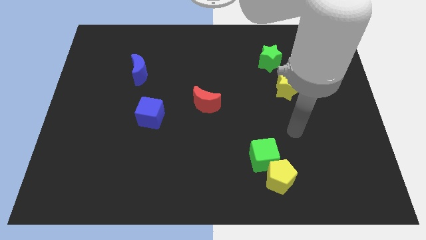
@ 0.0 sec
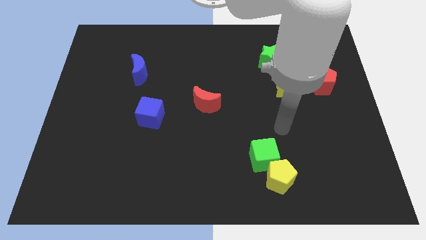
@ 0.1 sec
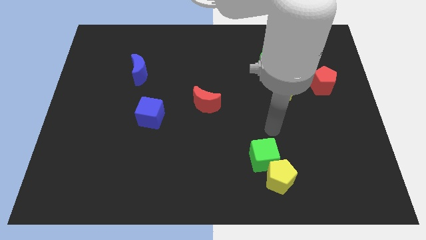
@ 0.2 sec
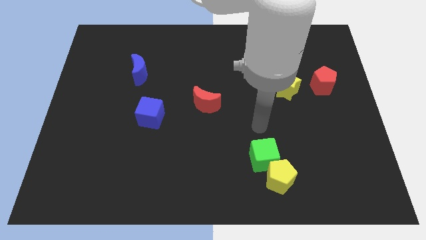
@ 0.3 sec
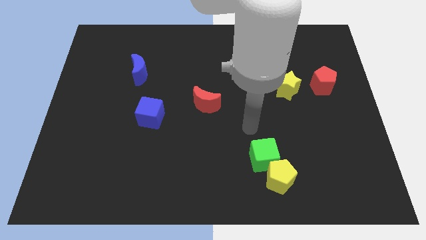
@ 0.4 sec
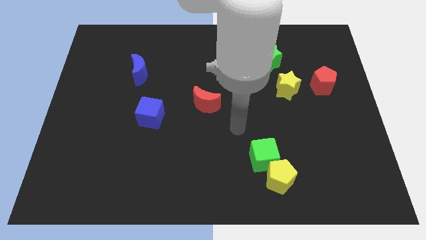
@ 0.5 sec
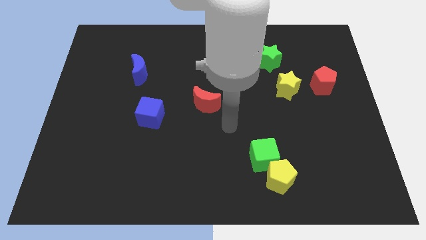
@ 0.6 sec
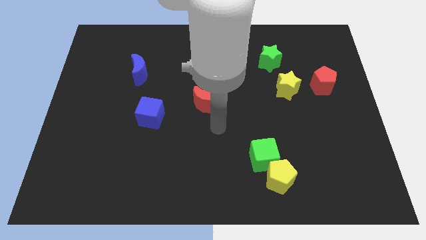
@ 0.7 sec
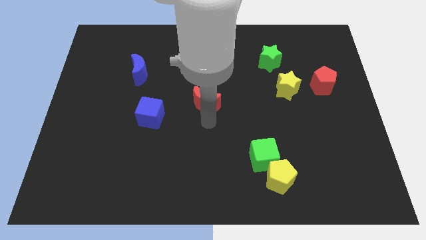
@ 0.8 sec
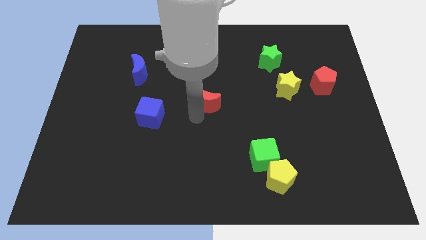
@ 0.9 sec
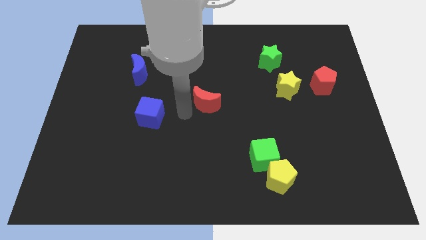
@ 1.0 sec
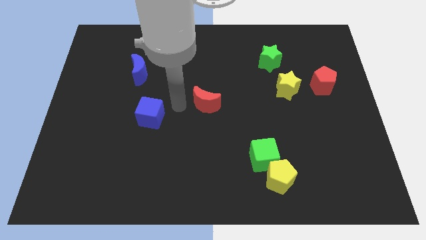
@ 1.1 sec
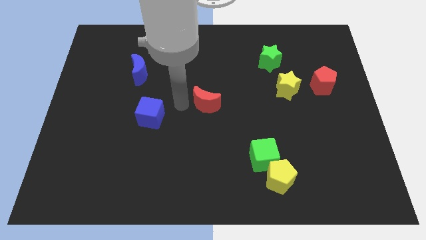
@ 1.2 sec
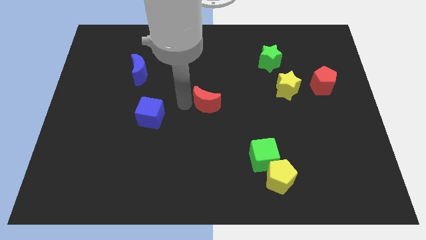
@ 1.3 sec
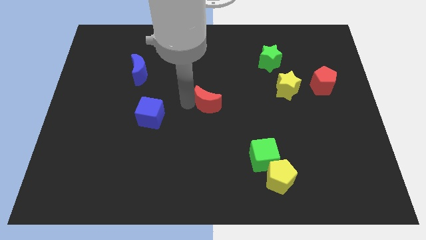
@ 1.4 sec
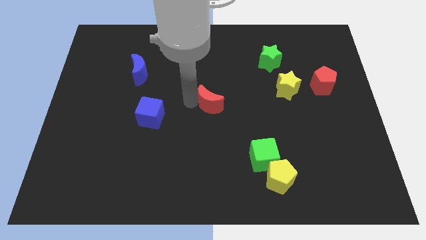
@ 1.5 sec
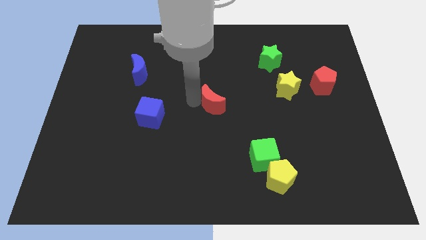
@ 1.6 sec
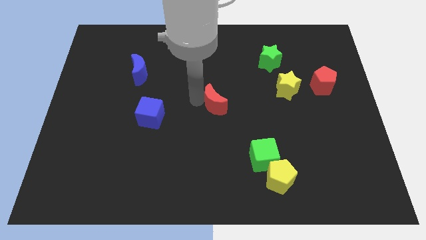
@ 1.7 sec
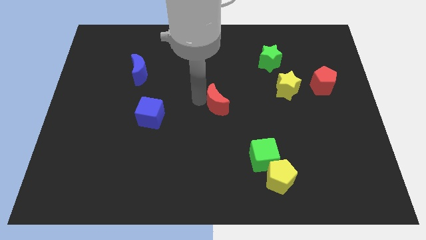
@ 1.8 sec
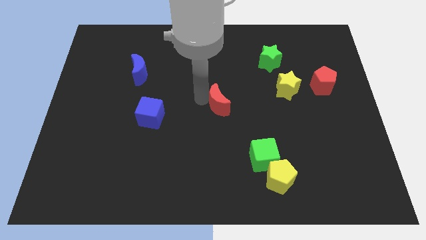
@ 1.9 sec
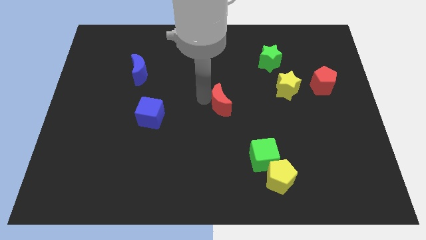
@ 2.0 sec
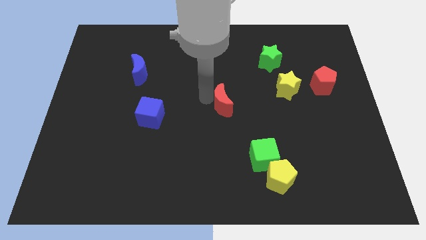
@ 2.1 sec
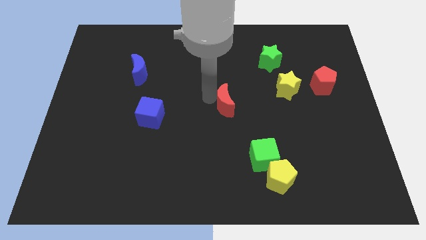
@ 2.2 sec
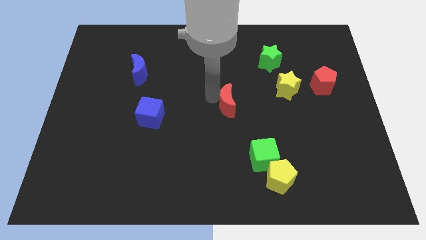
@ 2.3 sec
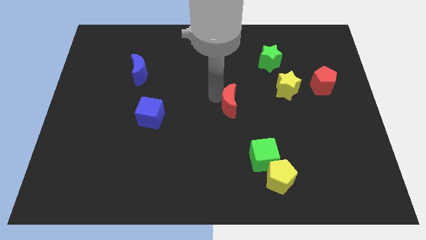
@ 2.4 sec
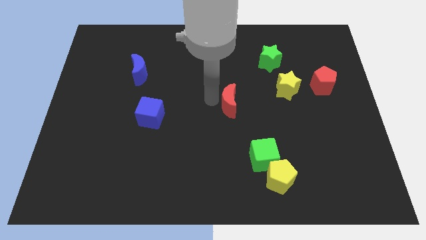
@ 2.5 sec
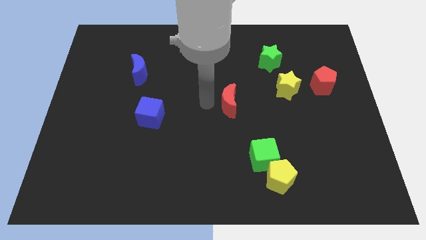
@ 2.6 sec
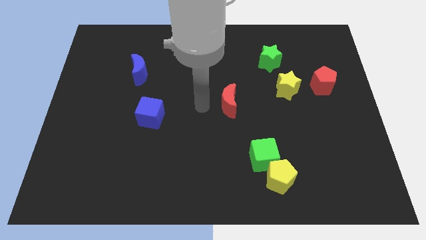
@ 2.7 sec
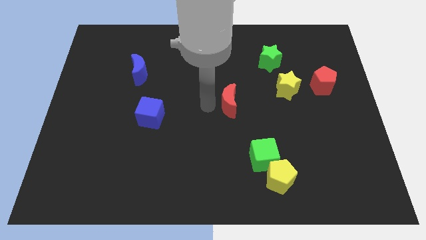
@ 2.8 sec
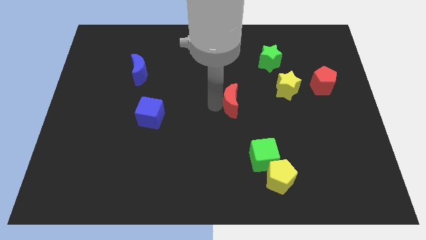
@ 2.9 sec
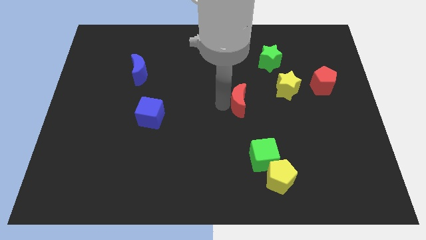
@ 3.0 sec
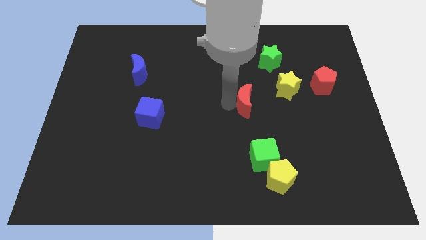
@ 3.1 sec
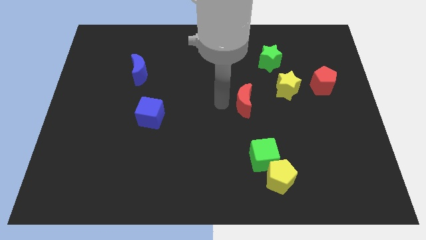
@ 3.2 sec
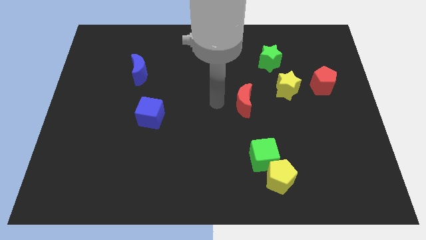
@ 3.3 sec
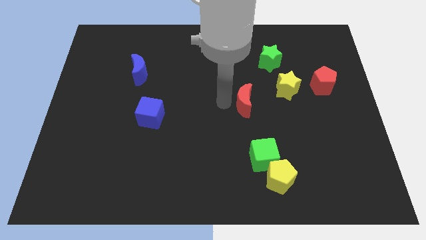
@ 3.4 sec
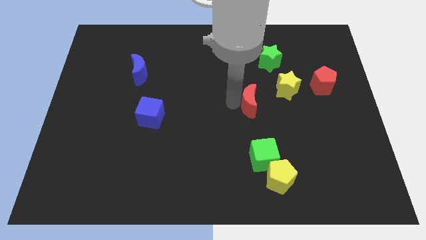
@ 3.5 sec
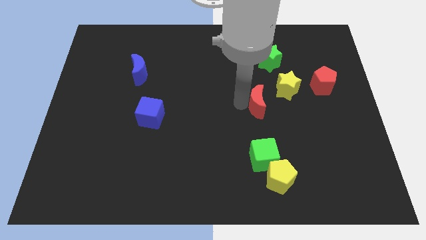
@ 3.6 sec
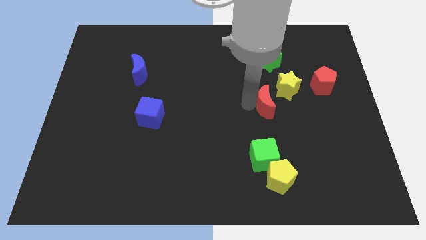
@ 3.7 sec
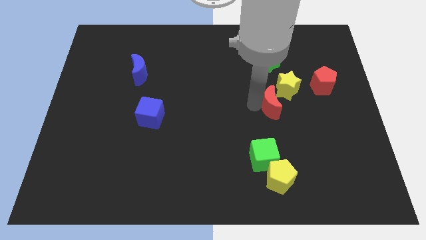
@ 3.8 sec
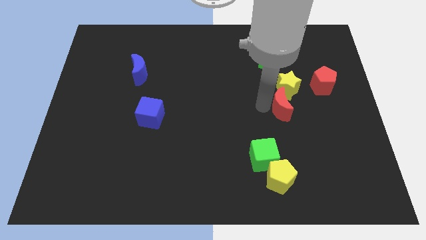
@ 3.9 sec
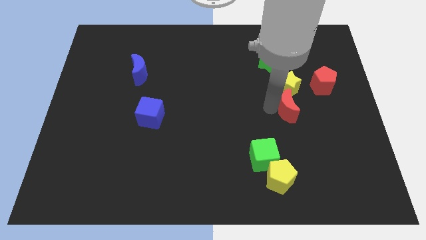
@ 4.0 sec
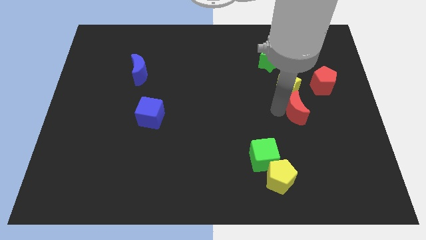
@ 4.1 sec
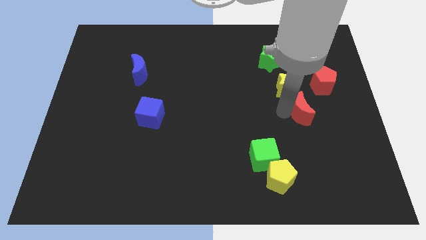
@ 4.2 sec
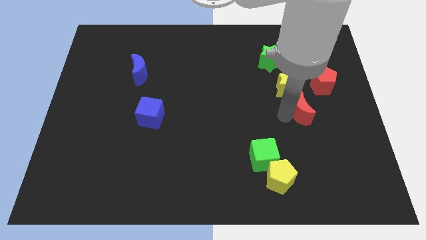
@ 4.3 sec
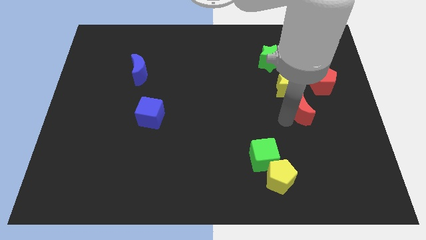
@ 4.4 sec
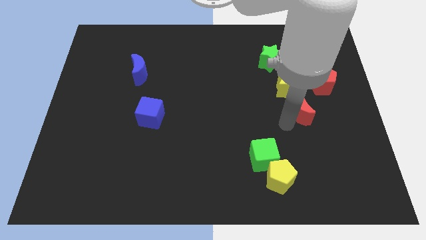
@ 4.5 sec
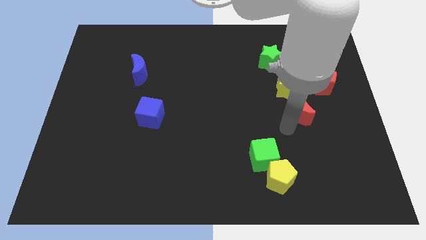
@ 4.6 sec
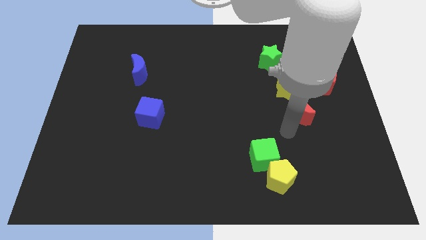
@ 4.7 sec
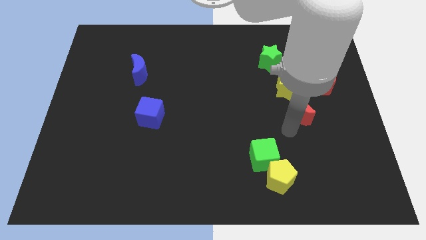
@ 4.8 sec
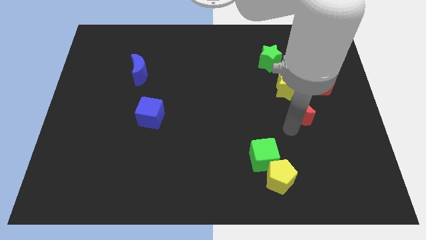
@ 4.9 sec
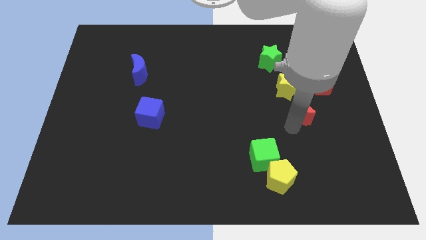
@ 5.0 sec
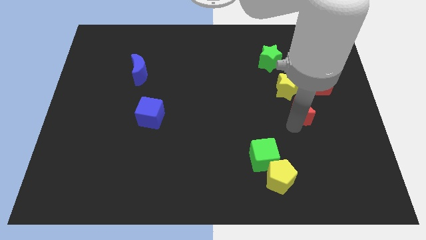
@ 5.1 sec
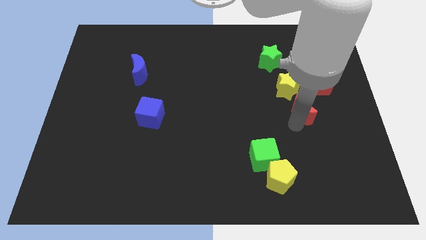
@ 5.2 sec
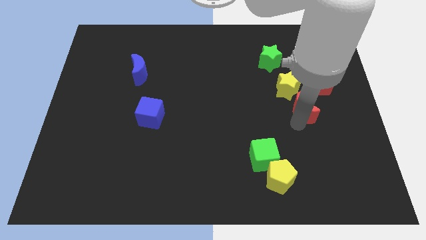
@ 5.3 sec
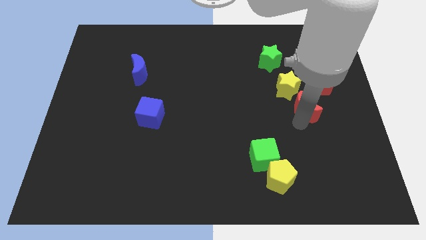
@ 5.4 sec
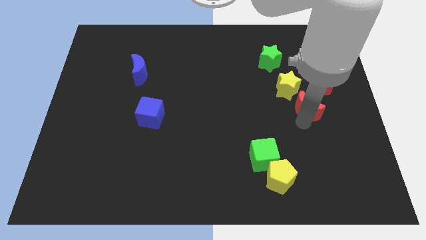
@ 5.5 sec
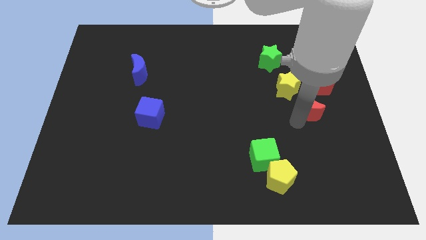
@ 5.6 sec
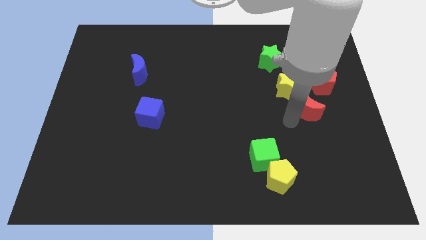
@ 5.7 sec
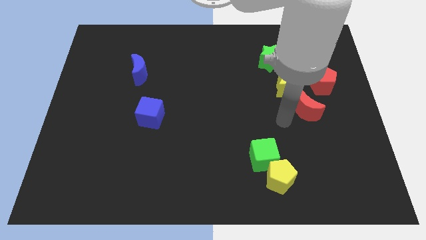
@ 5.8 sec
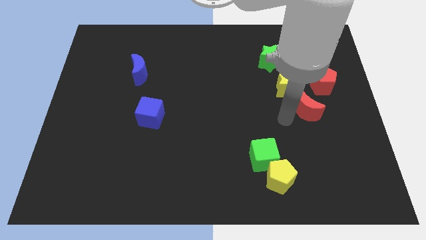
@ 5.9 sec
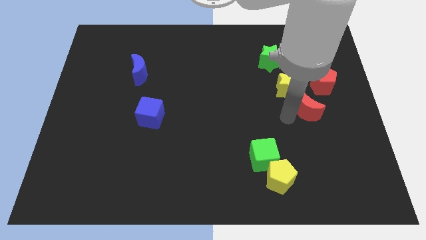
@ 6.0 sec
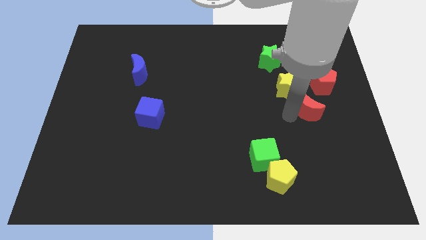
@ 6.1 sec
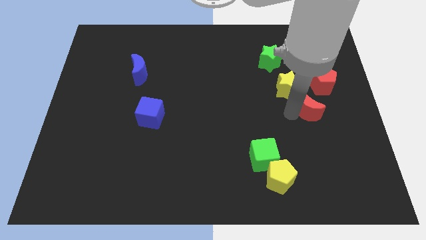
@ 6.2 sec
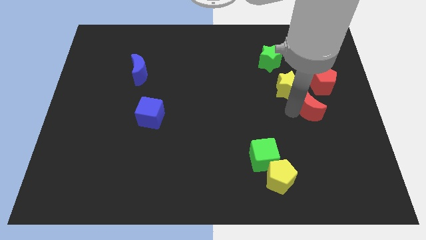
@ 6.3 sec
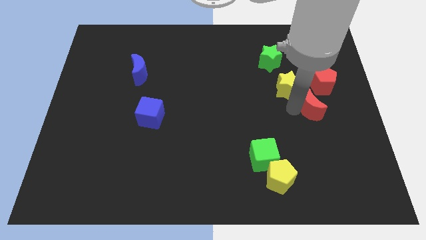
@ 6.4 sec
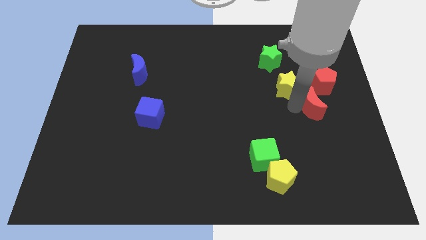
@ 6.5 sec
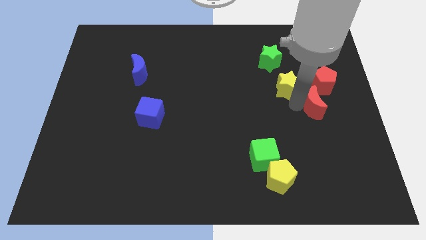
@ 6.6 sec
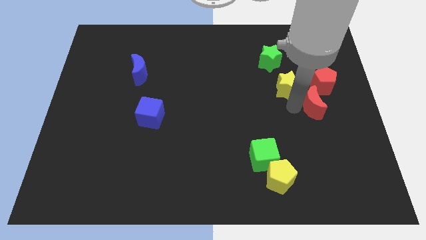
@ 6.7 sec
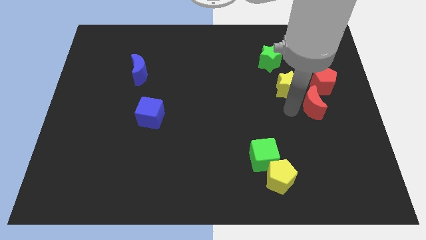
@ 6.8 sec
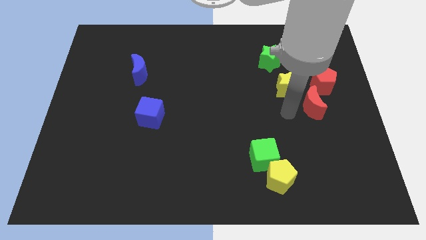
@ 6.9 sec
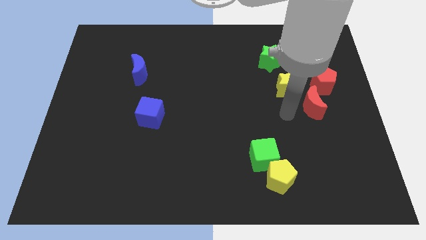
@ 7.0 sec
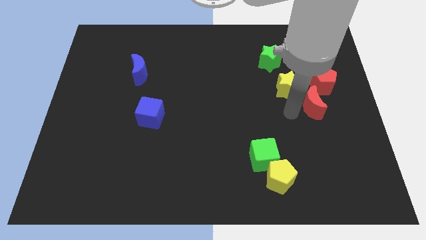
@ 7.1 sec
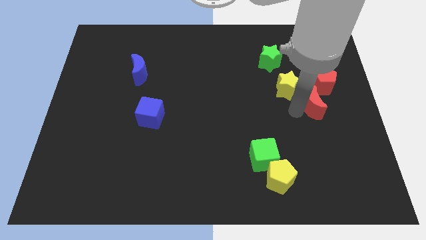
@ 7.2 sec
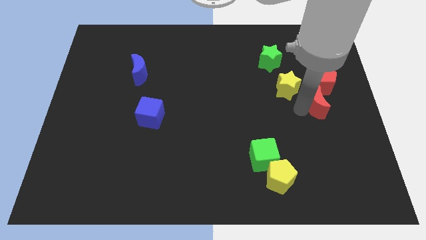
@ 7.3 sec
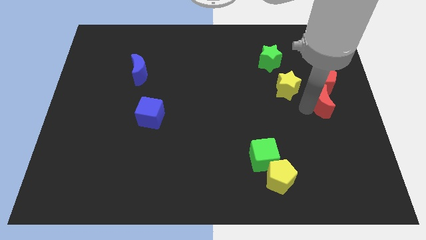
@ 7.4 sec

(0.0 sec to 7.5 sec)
put the red moon to the right of the yellow star
